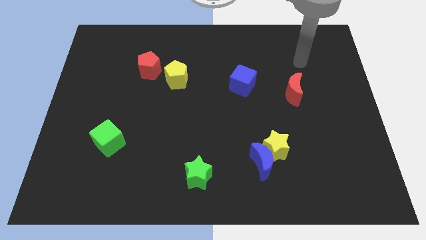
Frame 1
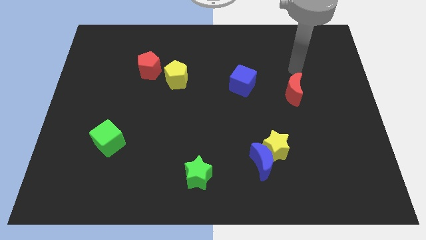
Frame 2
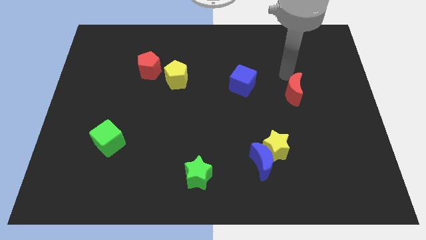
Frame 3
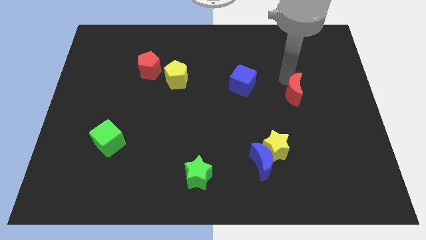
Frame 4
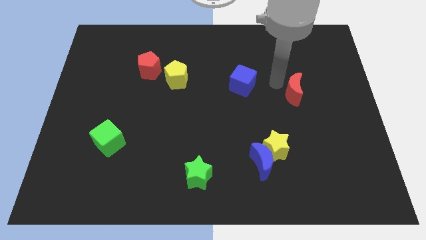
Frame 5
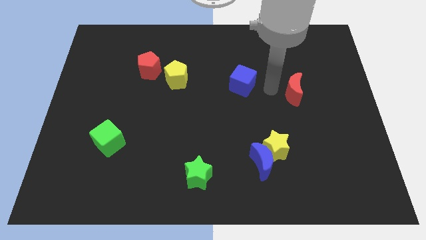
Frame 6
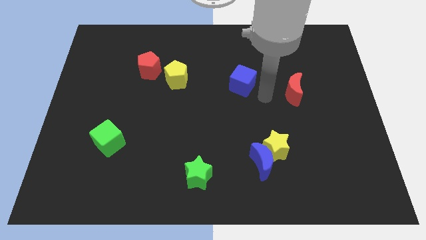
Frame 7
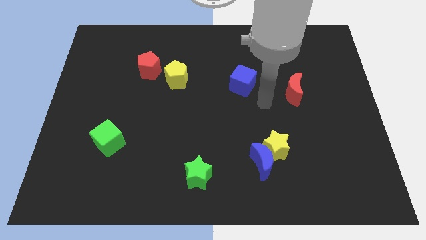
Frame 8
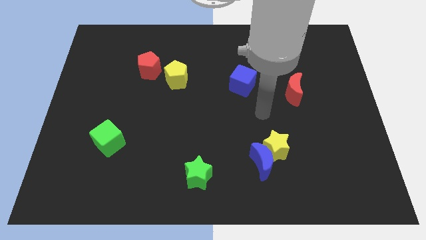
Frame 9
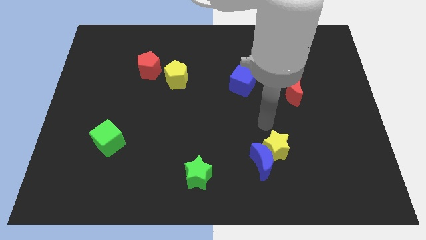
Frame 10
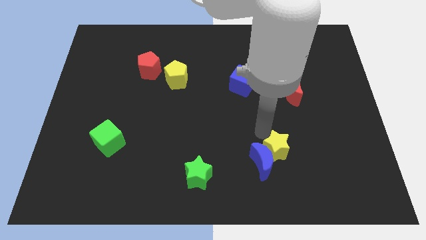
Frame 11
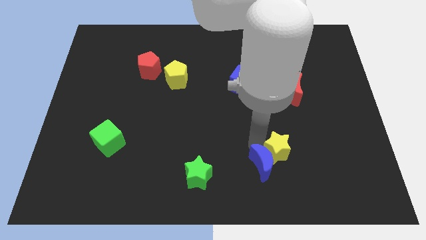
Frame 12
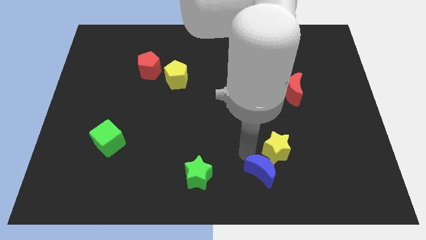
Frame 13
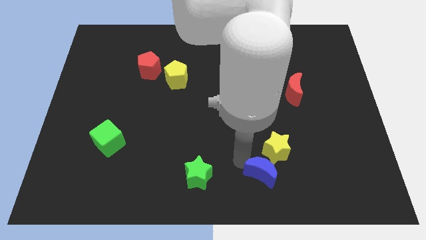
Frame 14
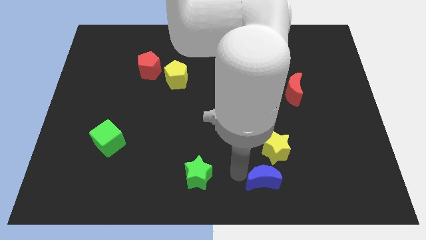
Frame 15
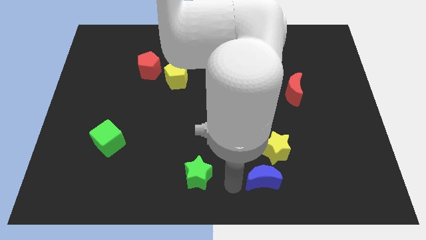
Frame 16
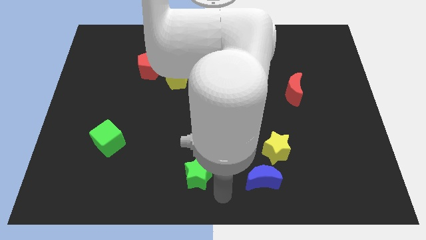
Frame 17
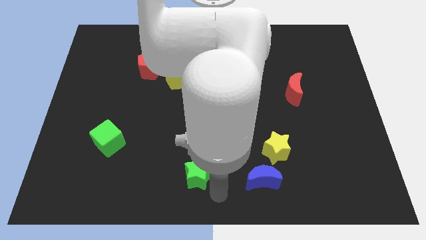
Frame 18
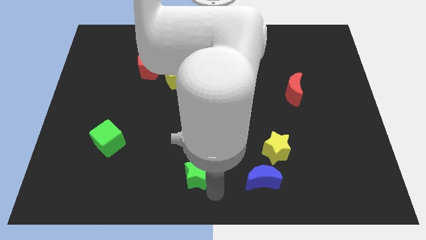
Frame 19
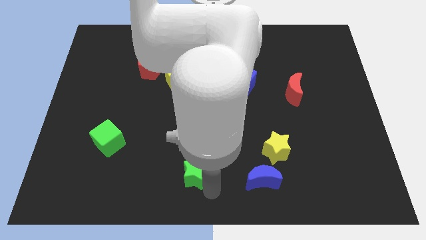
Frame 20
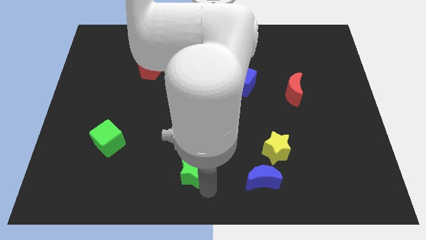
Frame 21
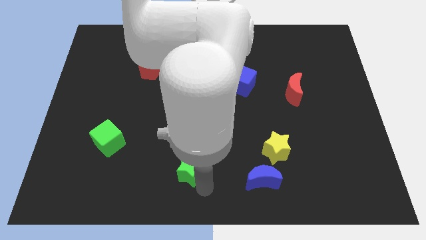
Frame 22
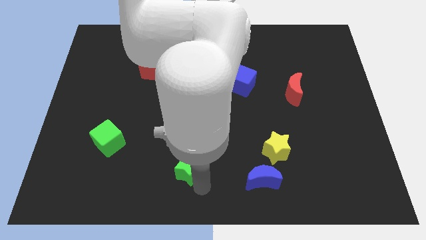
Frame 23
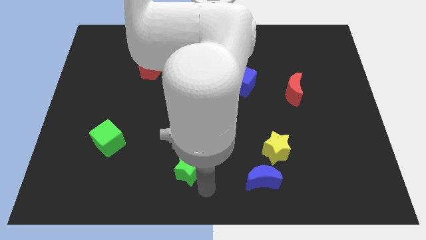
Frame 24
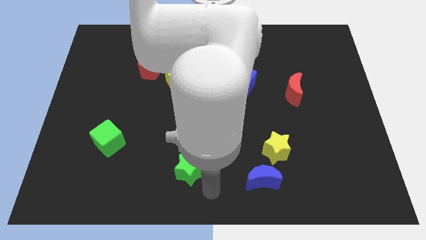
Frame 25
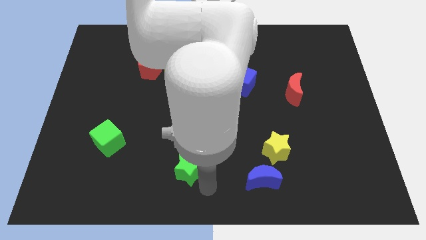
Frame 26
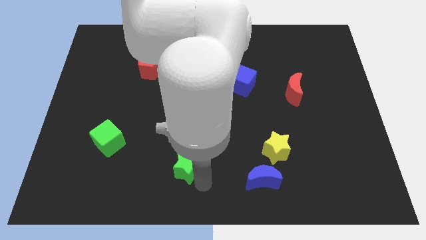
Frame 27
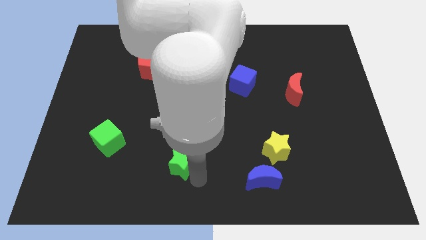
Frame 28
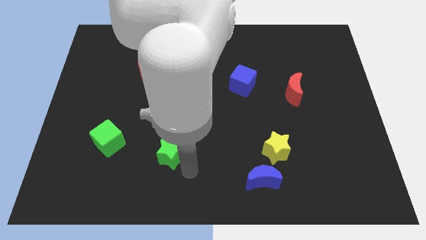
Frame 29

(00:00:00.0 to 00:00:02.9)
push the green star a bit up and then to the left

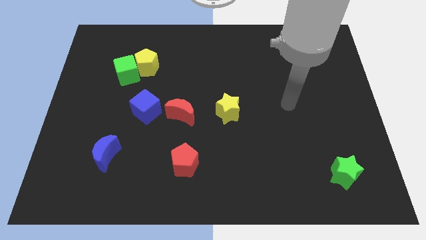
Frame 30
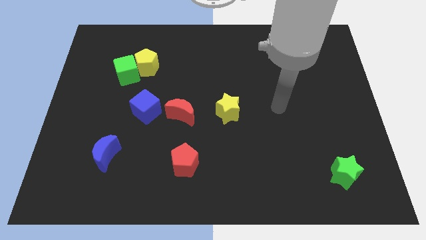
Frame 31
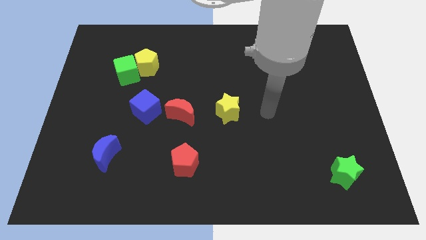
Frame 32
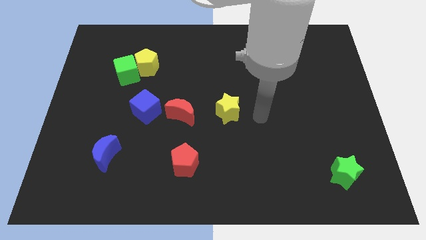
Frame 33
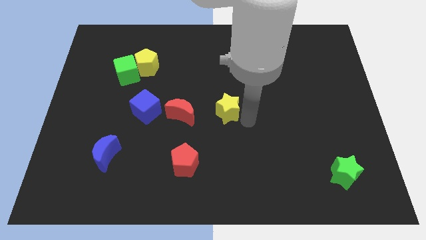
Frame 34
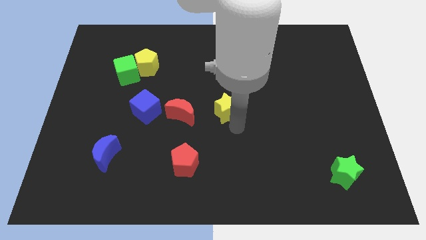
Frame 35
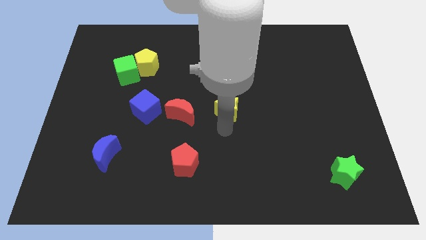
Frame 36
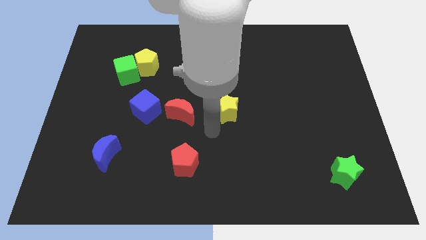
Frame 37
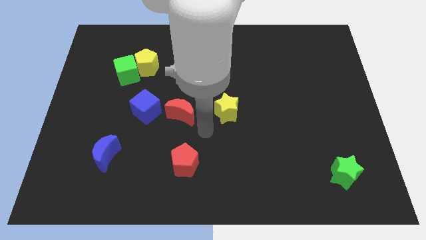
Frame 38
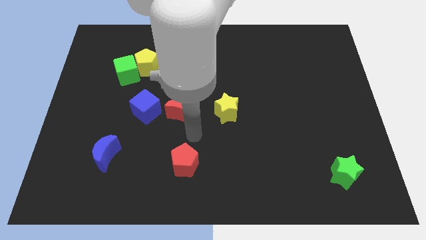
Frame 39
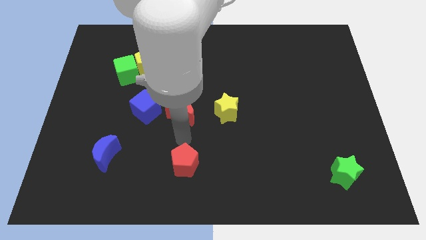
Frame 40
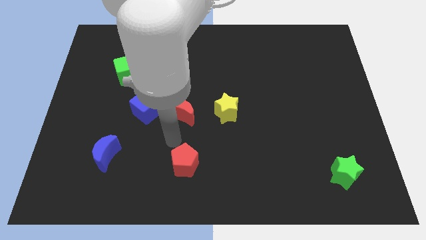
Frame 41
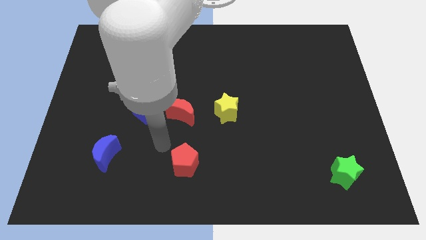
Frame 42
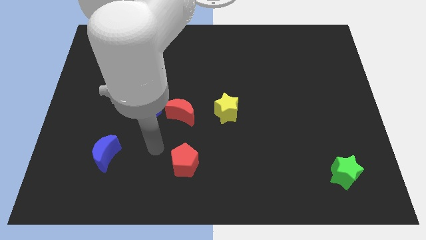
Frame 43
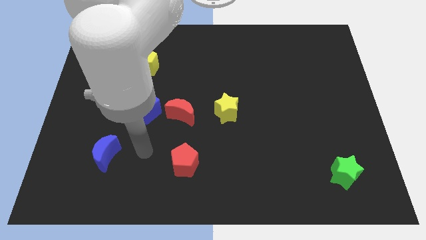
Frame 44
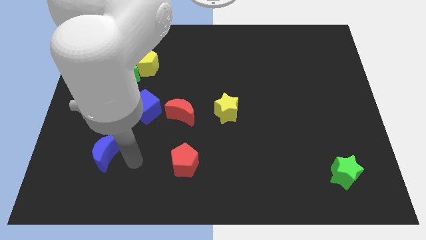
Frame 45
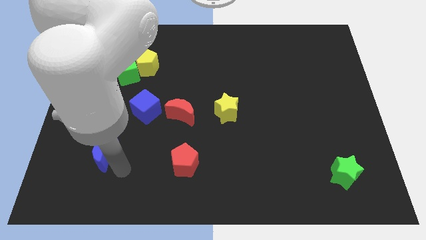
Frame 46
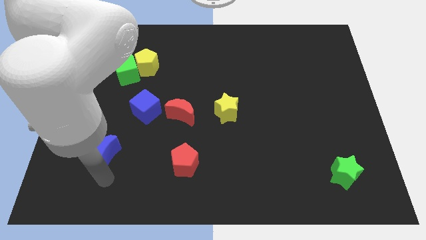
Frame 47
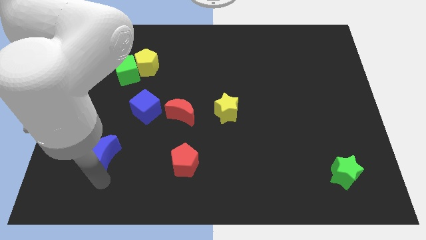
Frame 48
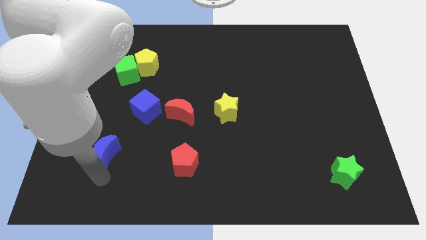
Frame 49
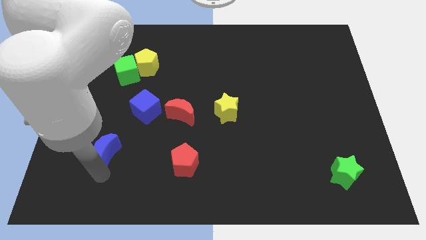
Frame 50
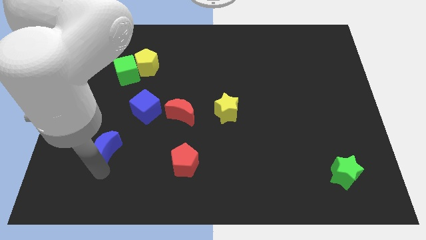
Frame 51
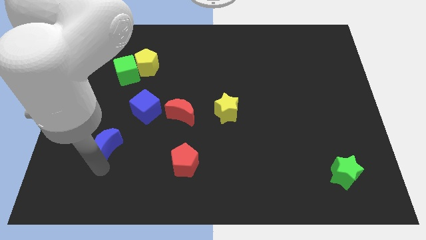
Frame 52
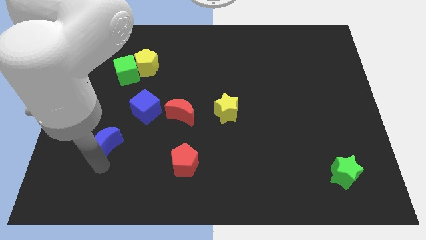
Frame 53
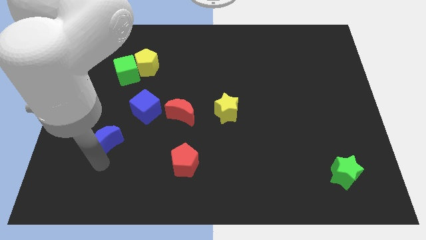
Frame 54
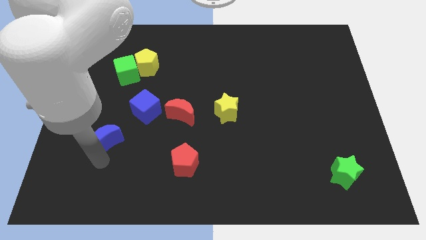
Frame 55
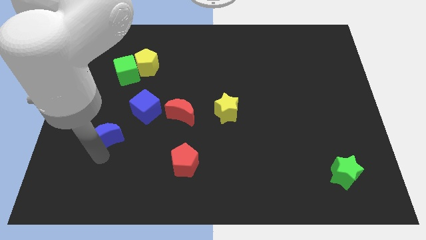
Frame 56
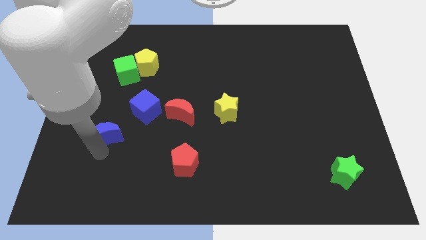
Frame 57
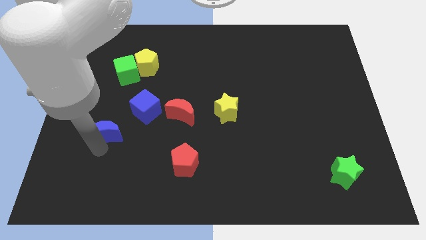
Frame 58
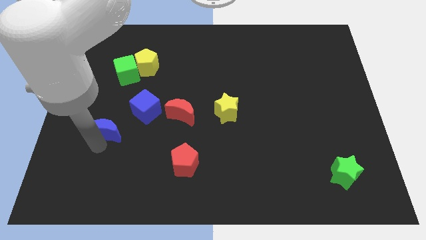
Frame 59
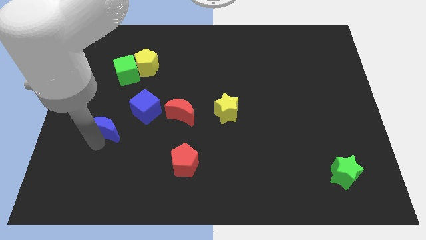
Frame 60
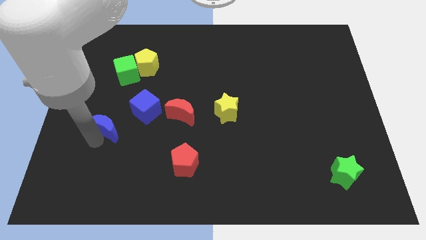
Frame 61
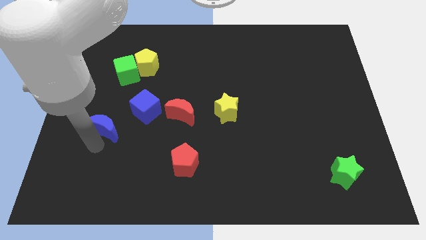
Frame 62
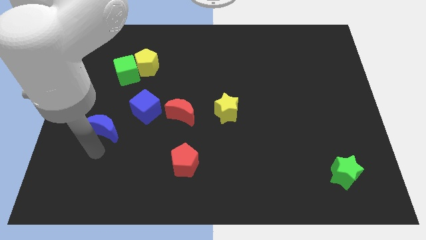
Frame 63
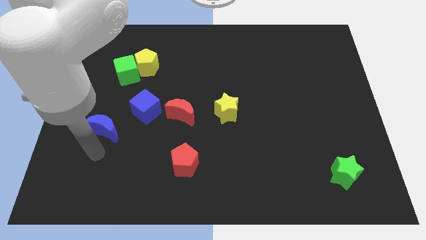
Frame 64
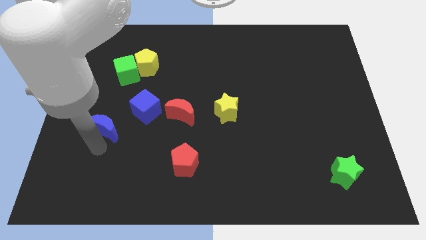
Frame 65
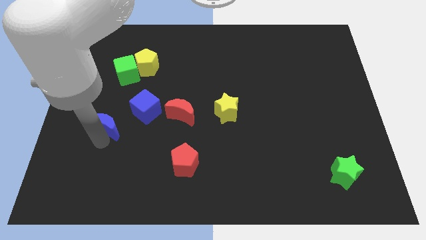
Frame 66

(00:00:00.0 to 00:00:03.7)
move the blue moon somewhat up

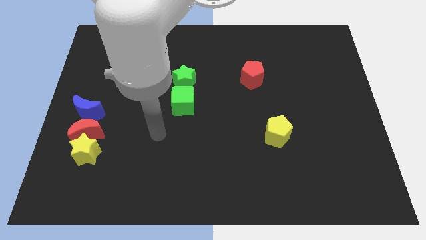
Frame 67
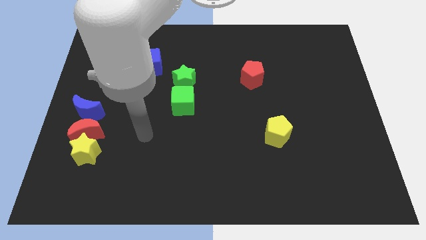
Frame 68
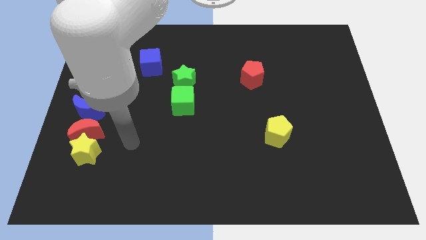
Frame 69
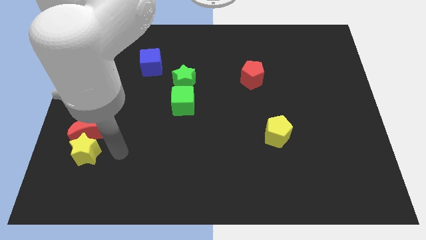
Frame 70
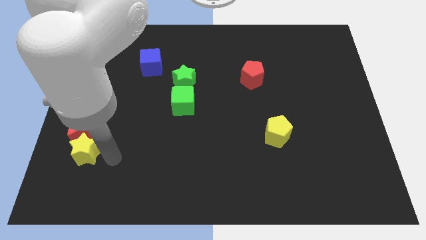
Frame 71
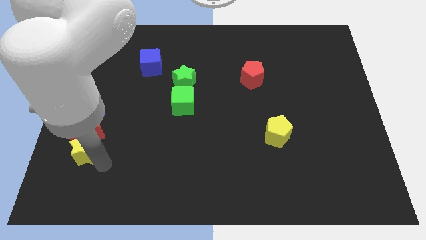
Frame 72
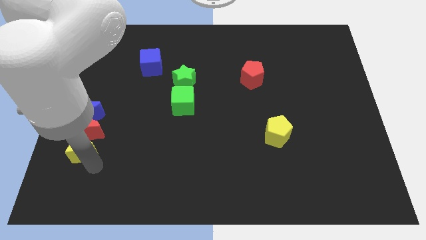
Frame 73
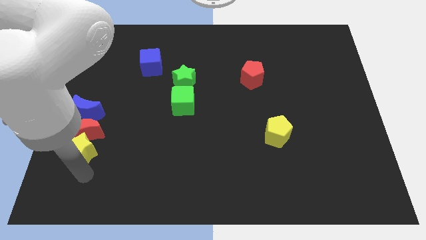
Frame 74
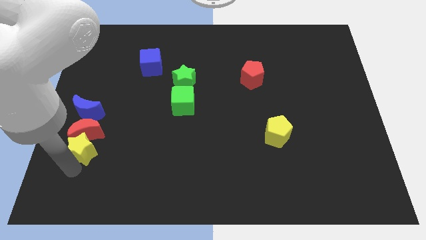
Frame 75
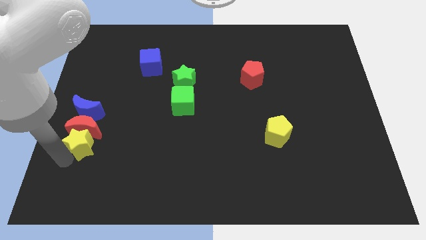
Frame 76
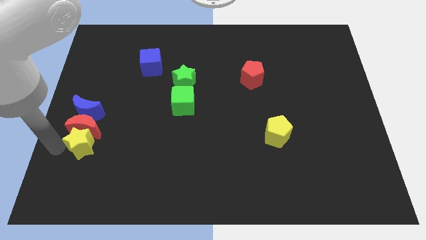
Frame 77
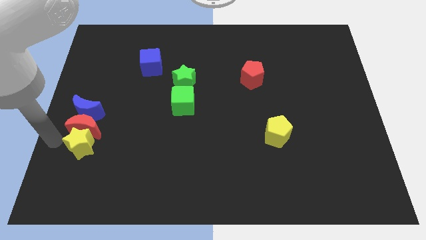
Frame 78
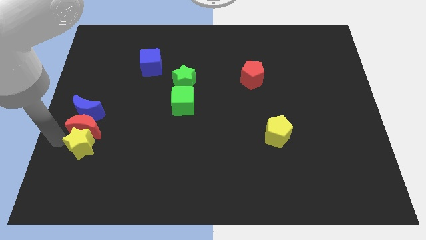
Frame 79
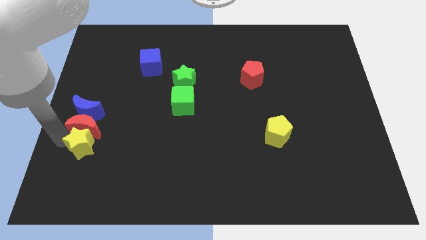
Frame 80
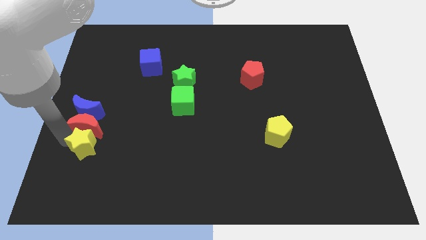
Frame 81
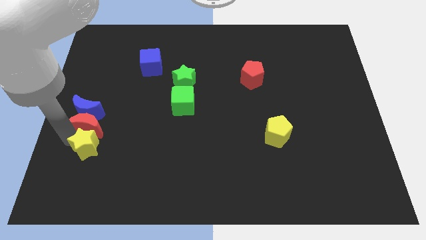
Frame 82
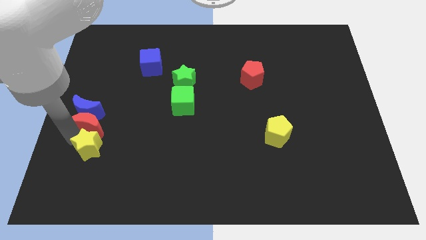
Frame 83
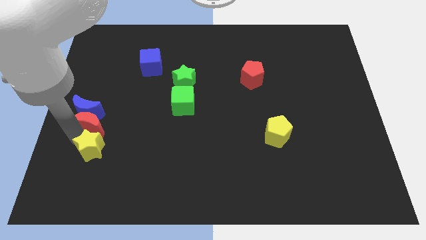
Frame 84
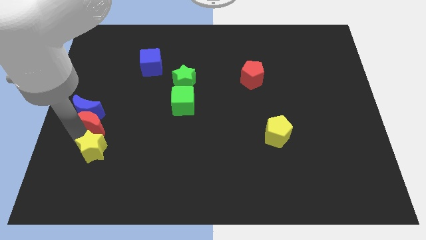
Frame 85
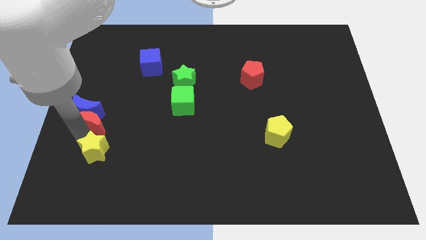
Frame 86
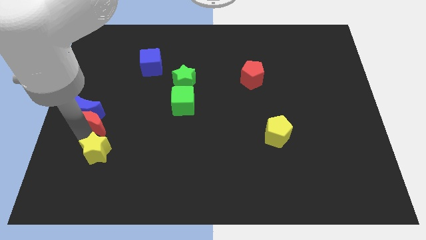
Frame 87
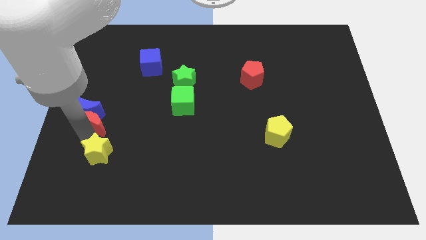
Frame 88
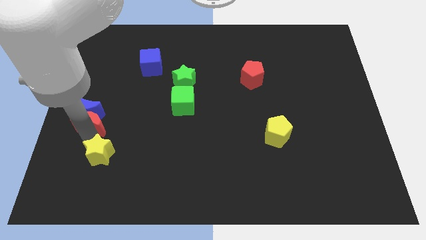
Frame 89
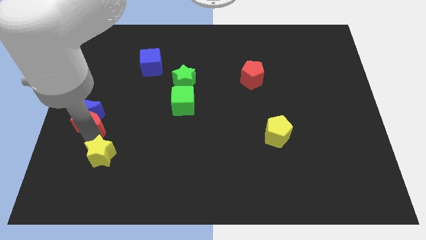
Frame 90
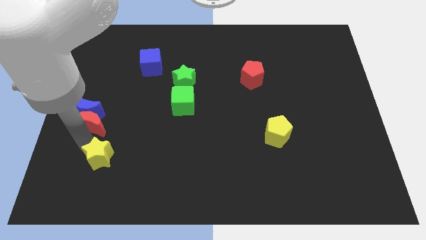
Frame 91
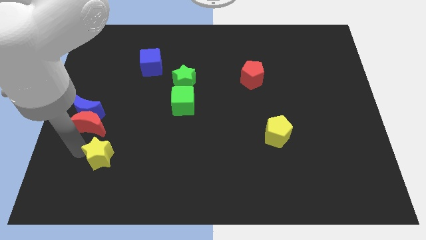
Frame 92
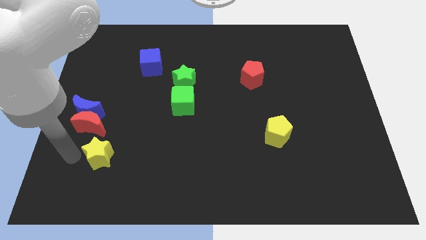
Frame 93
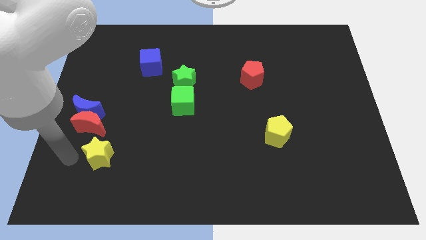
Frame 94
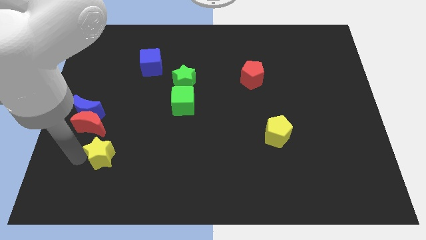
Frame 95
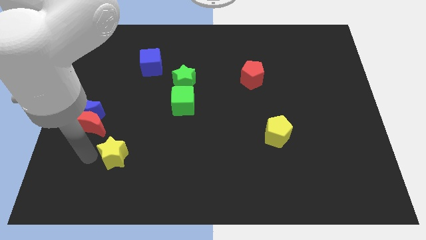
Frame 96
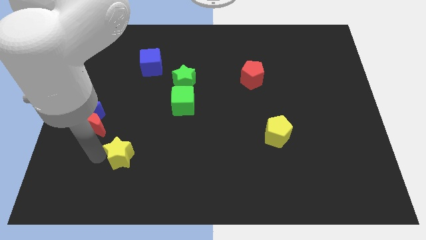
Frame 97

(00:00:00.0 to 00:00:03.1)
slide the yellow star a bit right
